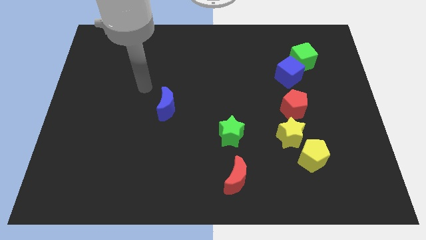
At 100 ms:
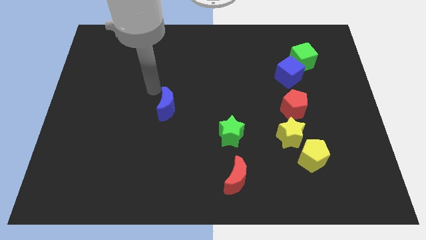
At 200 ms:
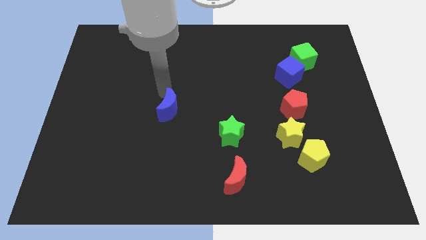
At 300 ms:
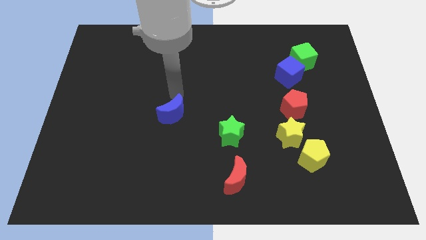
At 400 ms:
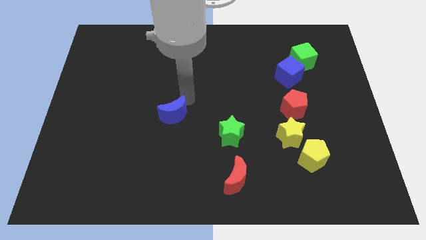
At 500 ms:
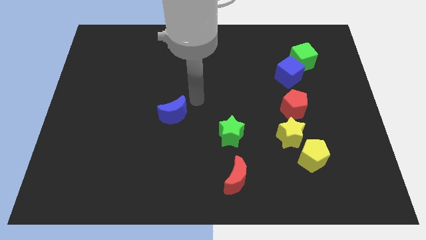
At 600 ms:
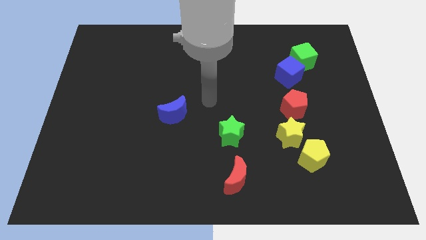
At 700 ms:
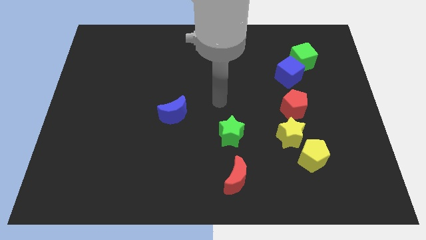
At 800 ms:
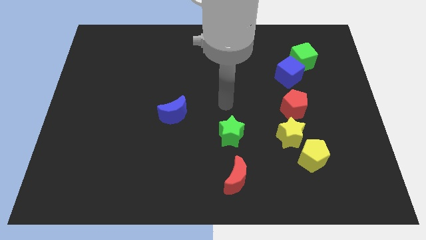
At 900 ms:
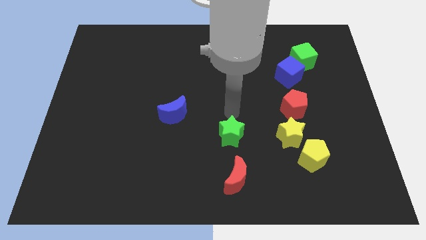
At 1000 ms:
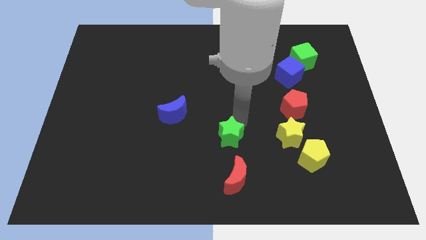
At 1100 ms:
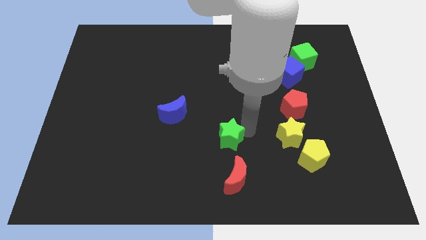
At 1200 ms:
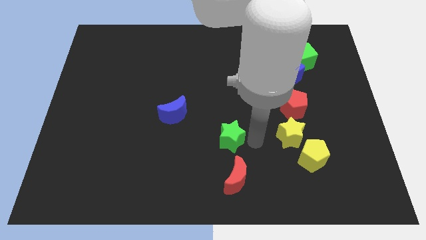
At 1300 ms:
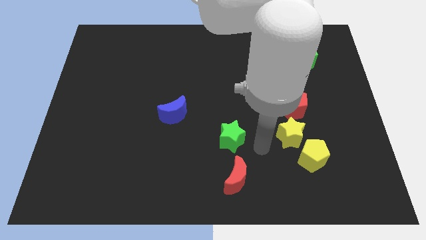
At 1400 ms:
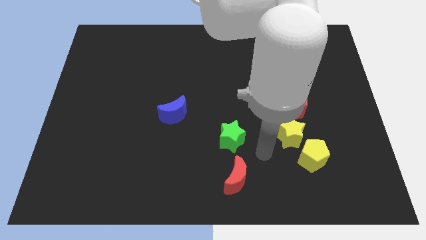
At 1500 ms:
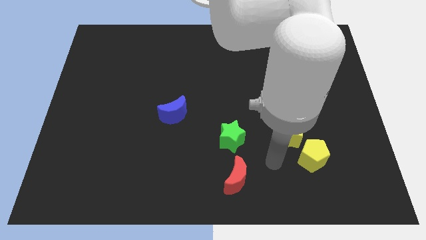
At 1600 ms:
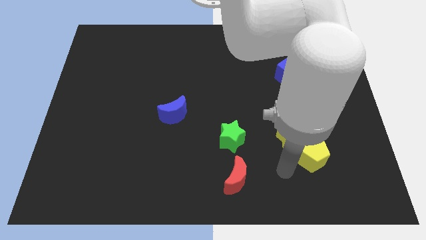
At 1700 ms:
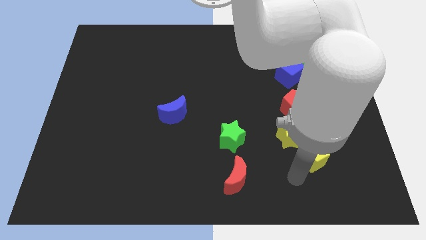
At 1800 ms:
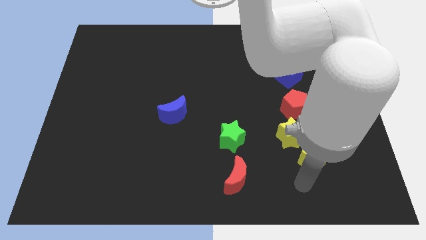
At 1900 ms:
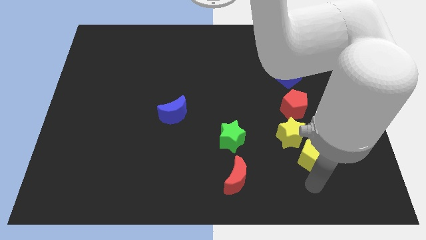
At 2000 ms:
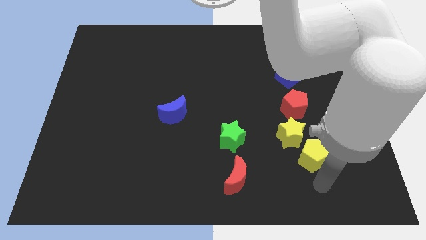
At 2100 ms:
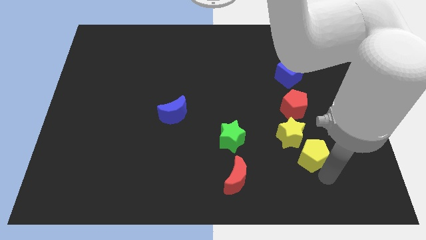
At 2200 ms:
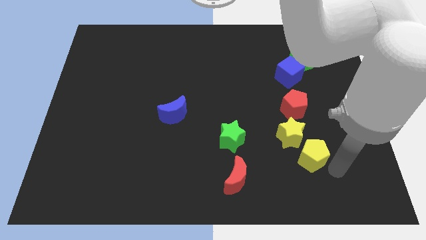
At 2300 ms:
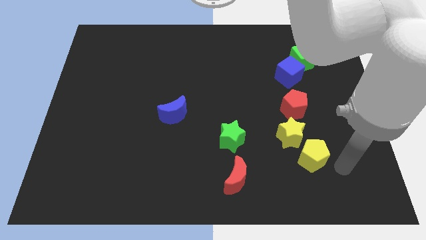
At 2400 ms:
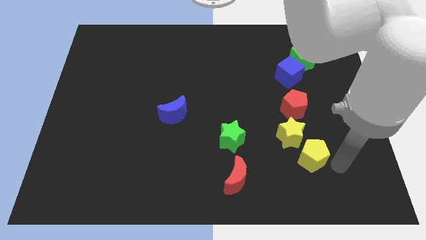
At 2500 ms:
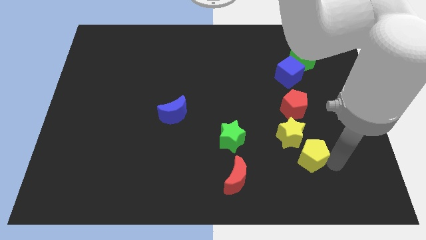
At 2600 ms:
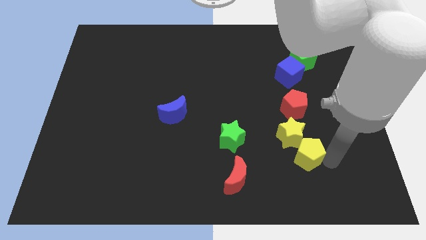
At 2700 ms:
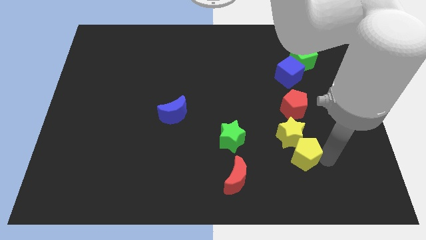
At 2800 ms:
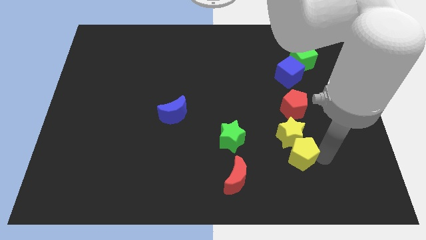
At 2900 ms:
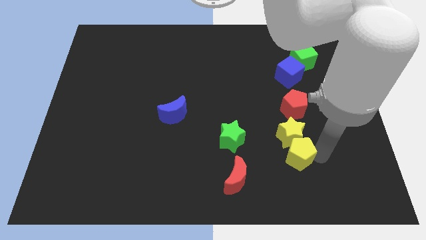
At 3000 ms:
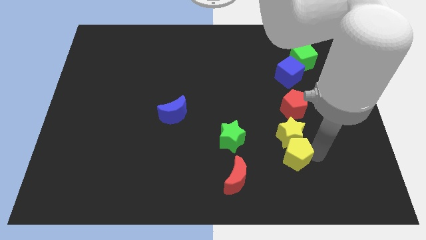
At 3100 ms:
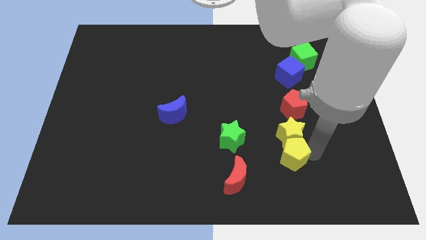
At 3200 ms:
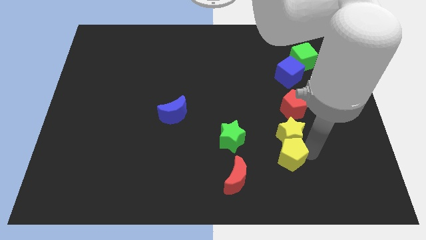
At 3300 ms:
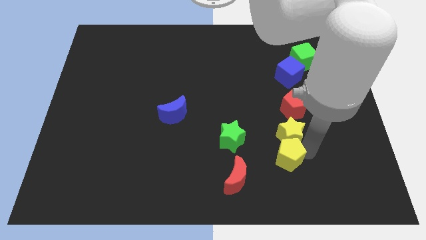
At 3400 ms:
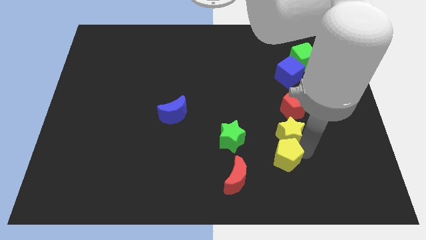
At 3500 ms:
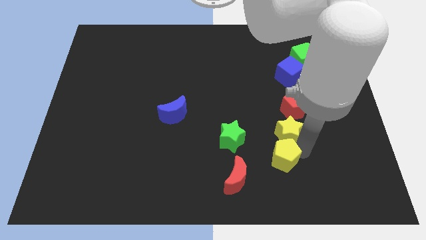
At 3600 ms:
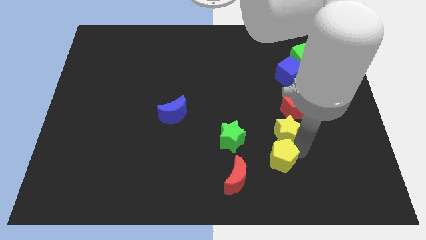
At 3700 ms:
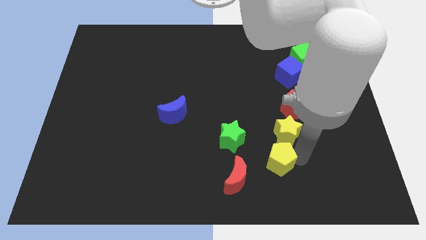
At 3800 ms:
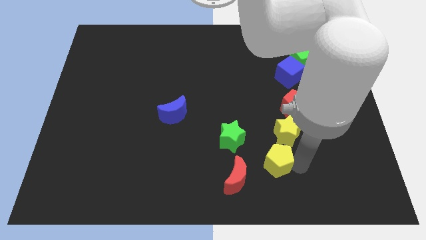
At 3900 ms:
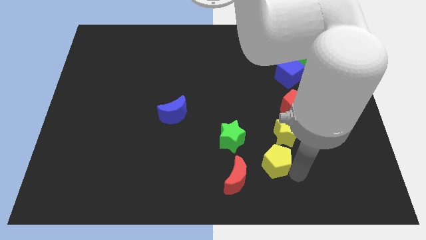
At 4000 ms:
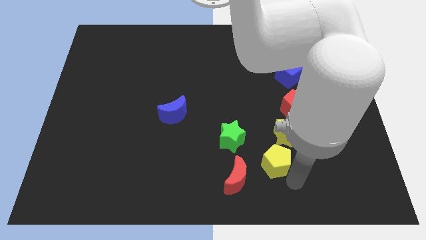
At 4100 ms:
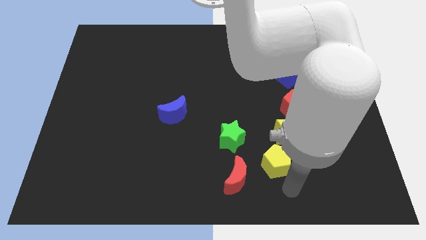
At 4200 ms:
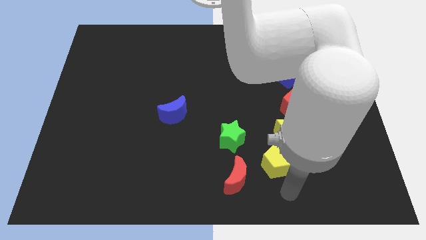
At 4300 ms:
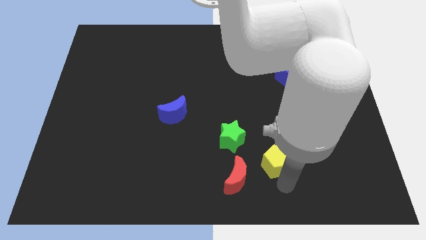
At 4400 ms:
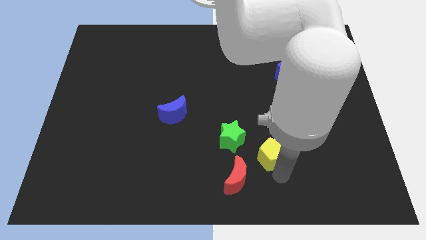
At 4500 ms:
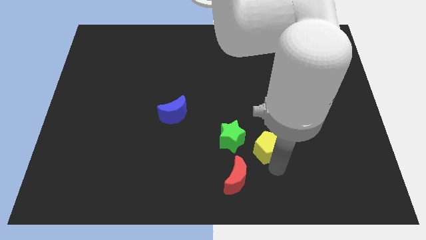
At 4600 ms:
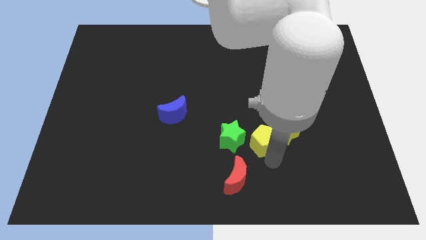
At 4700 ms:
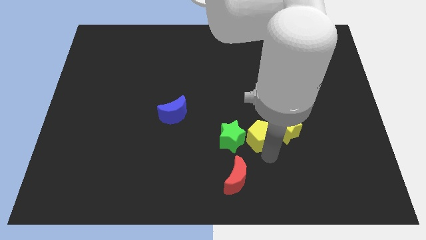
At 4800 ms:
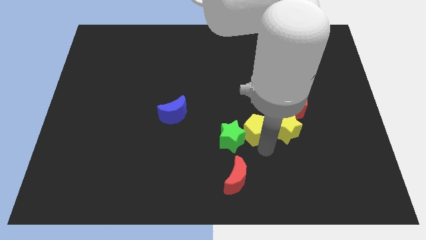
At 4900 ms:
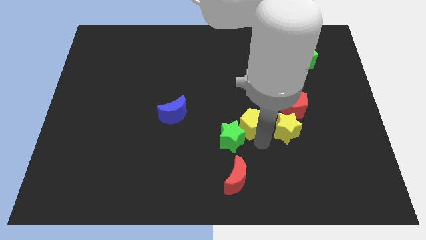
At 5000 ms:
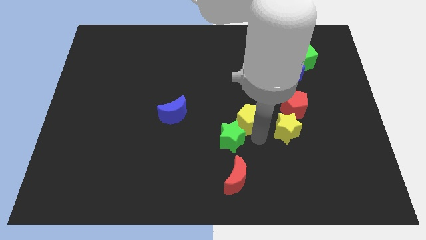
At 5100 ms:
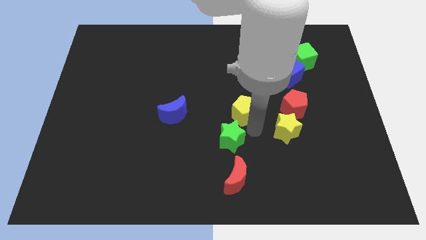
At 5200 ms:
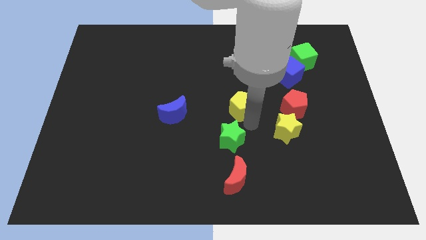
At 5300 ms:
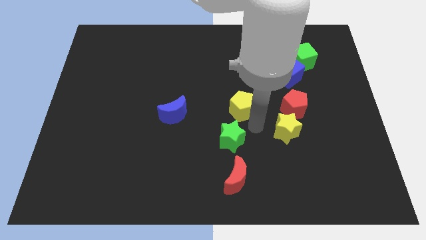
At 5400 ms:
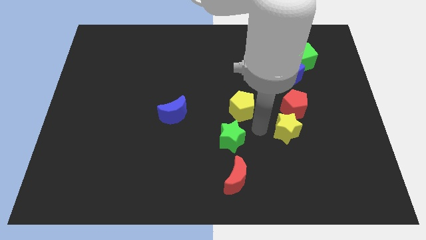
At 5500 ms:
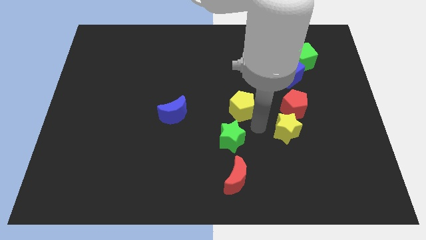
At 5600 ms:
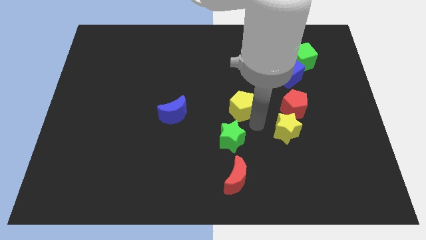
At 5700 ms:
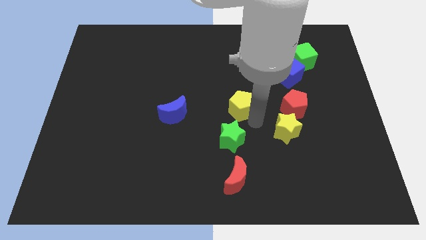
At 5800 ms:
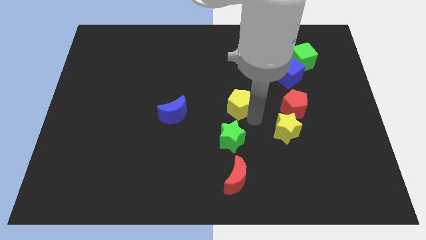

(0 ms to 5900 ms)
move the yellow pentagon up and to the left

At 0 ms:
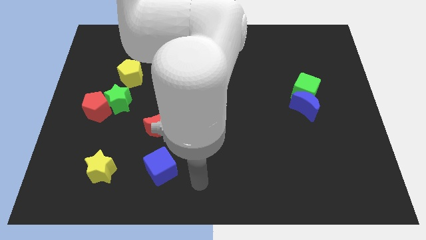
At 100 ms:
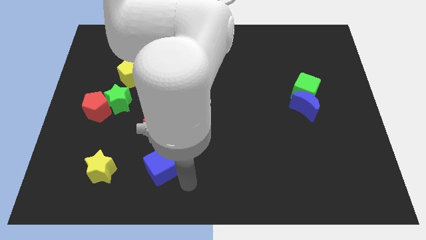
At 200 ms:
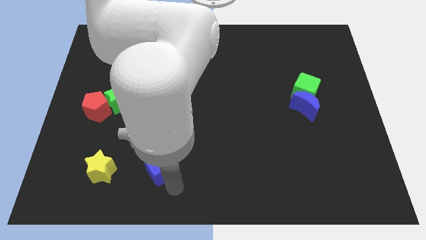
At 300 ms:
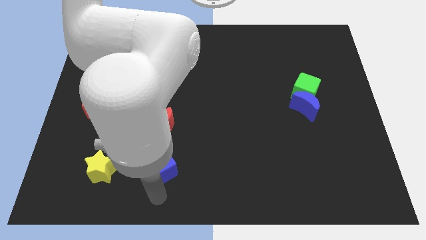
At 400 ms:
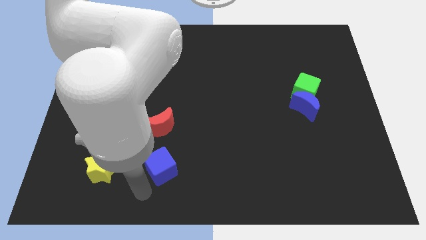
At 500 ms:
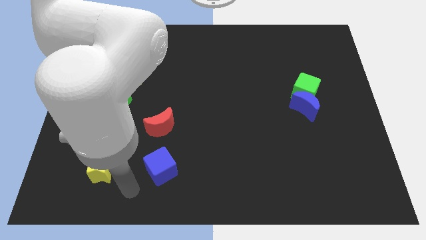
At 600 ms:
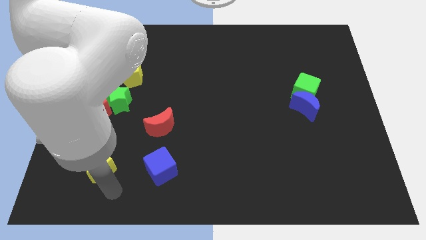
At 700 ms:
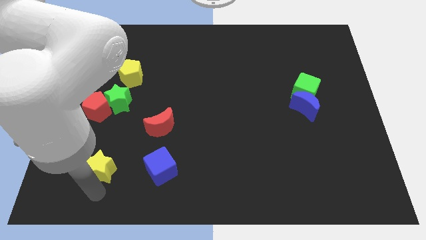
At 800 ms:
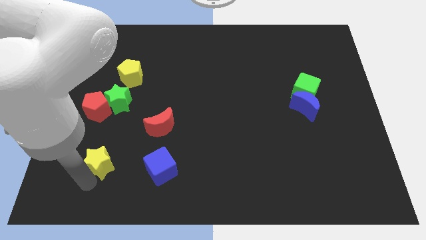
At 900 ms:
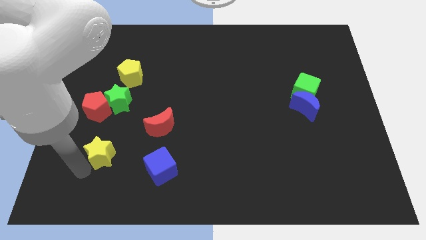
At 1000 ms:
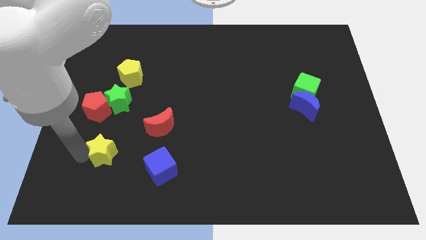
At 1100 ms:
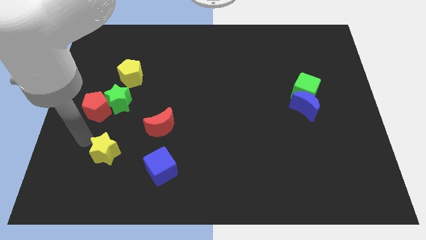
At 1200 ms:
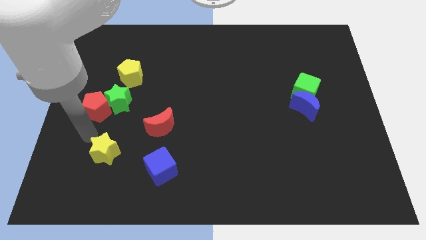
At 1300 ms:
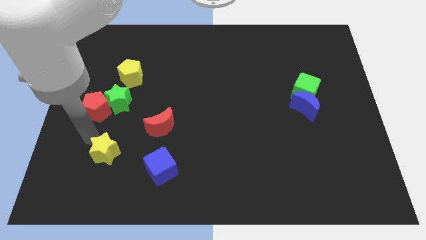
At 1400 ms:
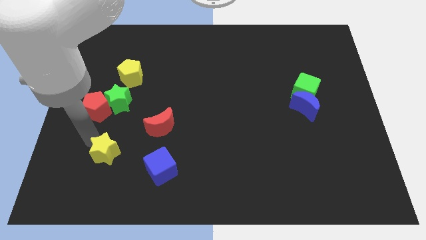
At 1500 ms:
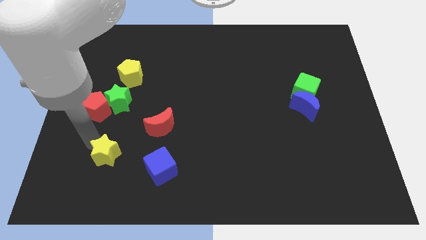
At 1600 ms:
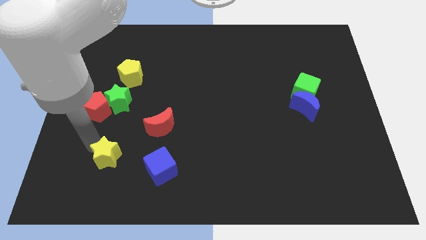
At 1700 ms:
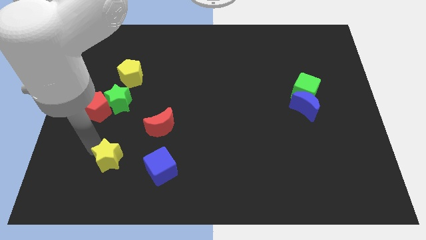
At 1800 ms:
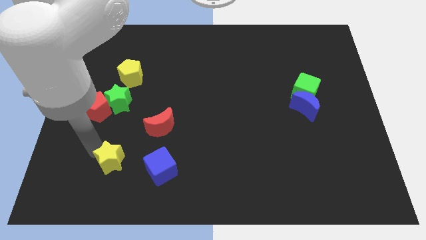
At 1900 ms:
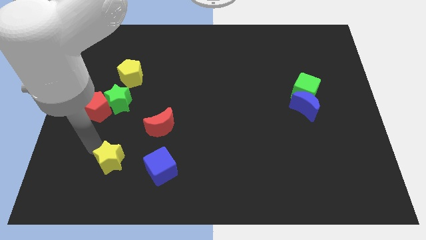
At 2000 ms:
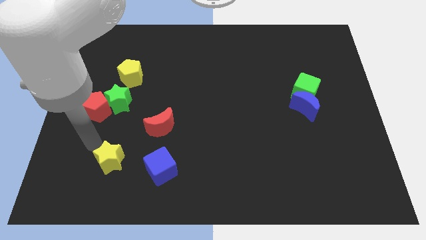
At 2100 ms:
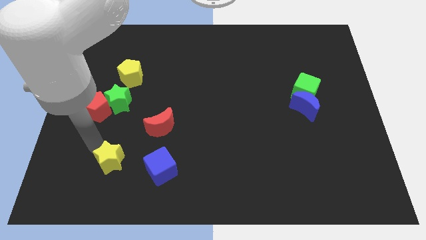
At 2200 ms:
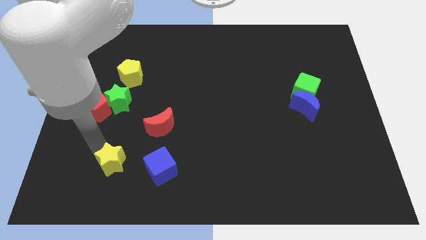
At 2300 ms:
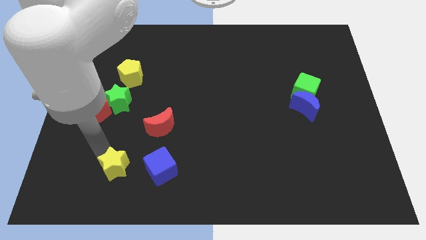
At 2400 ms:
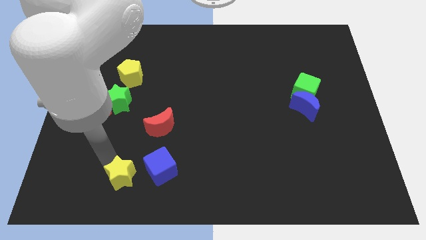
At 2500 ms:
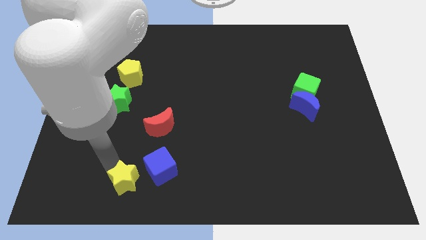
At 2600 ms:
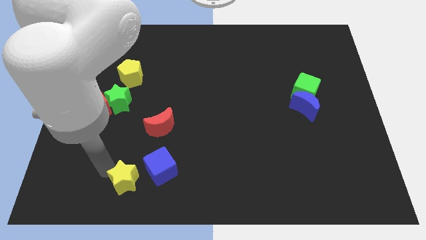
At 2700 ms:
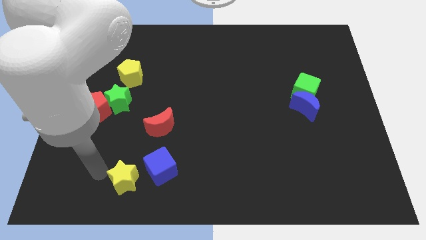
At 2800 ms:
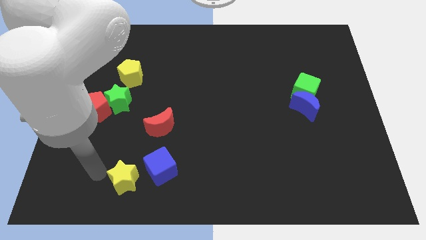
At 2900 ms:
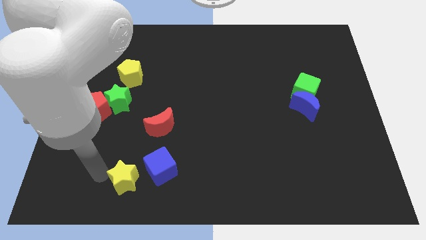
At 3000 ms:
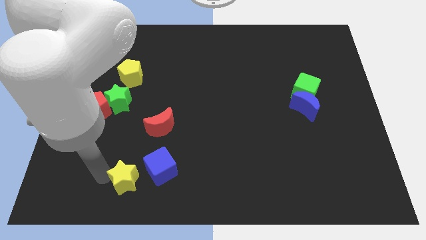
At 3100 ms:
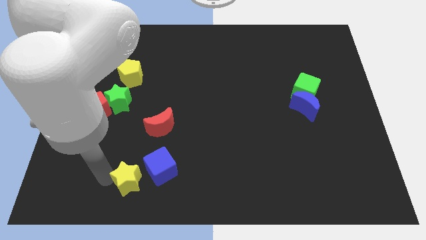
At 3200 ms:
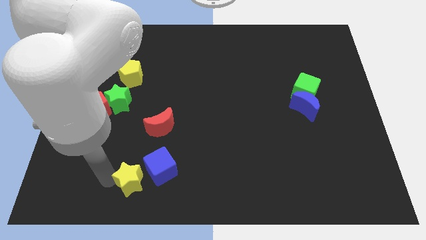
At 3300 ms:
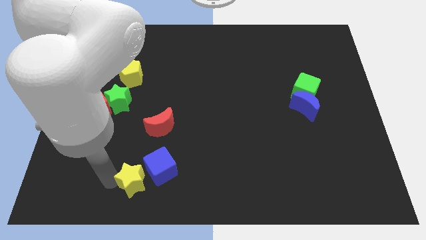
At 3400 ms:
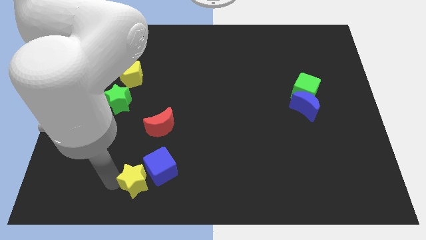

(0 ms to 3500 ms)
slightly slide the yellow star right
